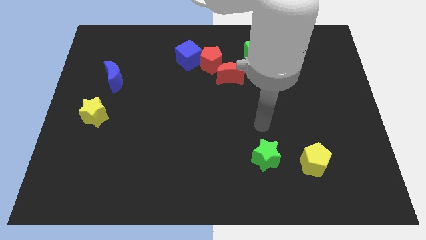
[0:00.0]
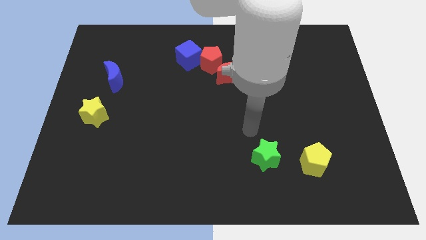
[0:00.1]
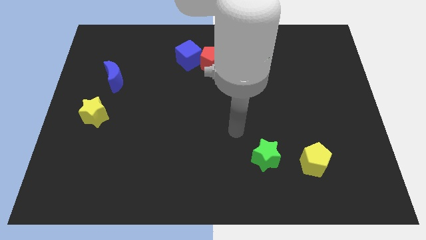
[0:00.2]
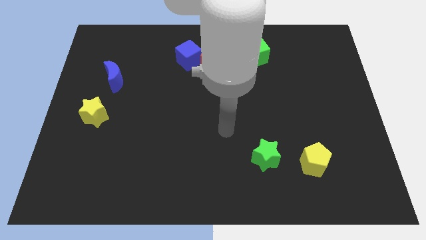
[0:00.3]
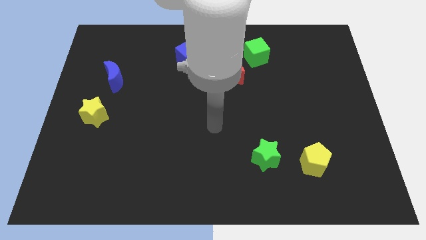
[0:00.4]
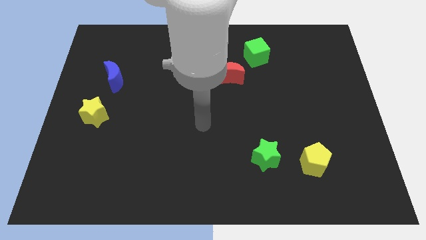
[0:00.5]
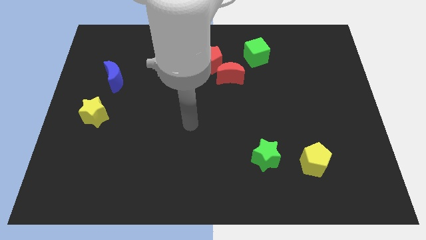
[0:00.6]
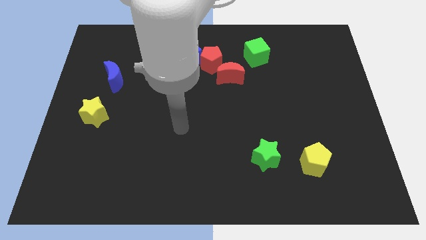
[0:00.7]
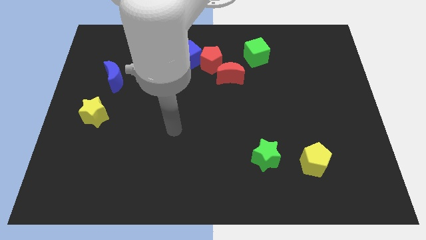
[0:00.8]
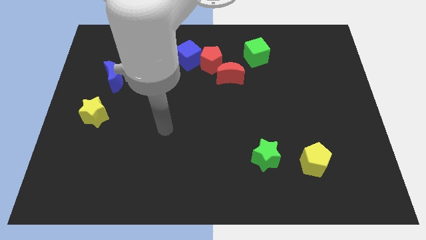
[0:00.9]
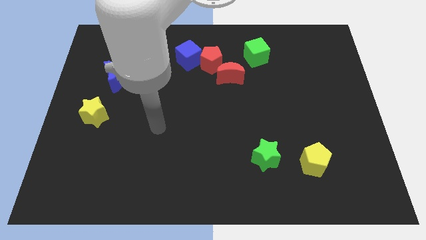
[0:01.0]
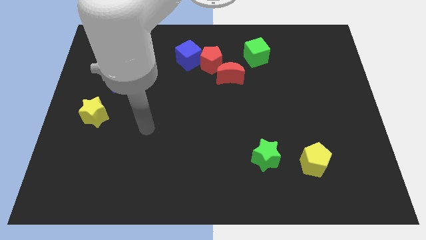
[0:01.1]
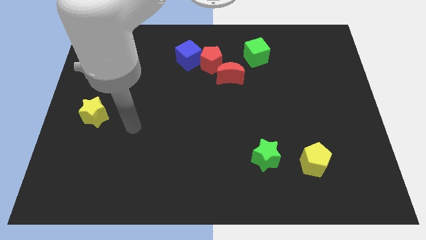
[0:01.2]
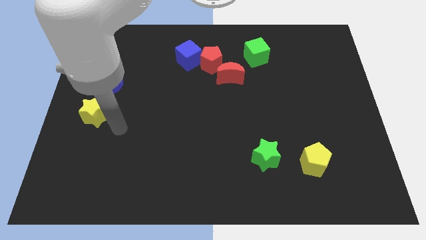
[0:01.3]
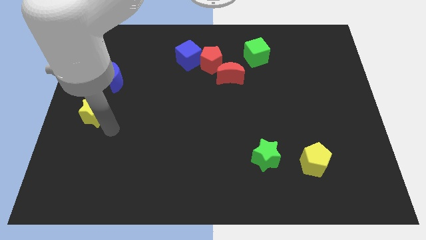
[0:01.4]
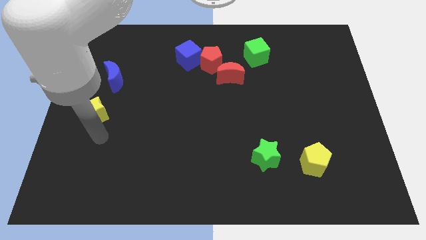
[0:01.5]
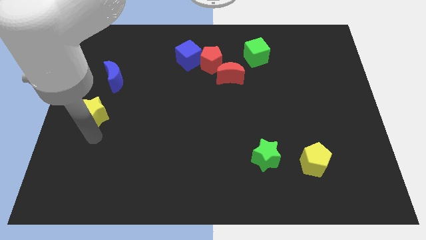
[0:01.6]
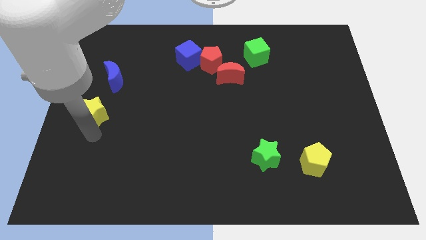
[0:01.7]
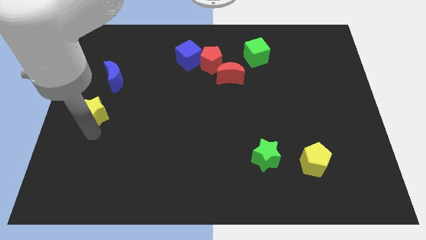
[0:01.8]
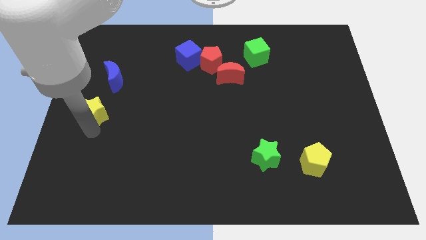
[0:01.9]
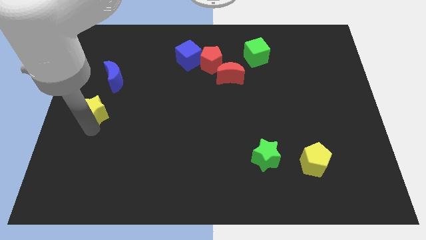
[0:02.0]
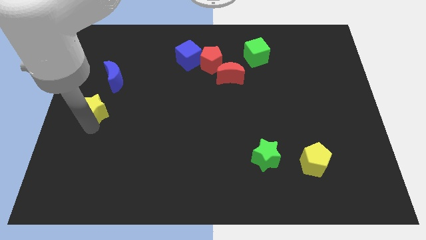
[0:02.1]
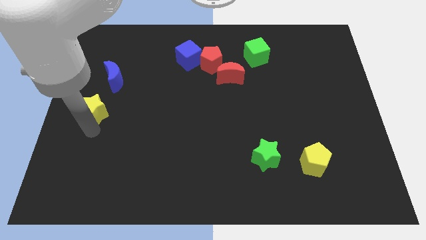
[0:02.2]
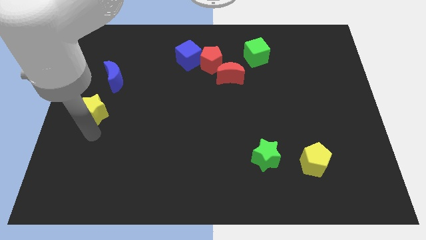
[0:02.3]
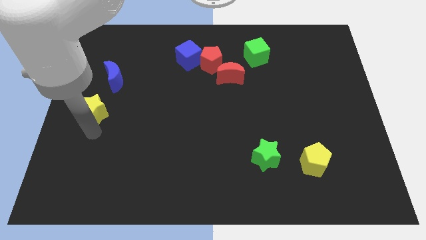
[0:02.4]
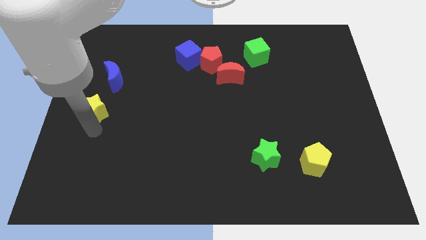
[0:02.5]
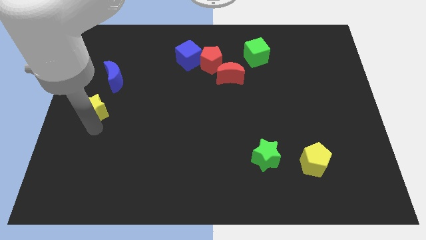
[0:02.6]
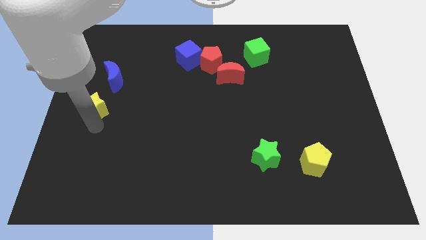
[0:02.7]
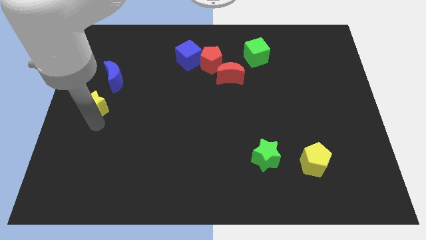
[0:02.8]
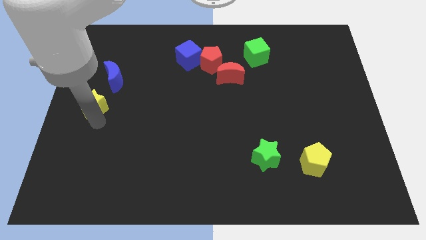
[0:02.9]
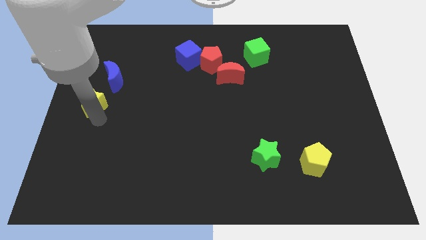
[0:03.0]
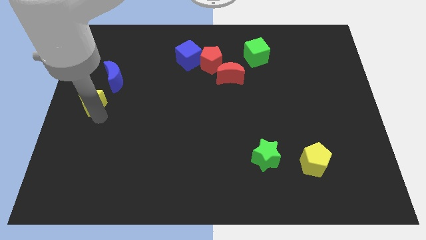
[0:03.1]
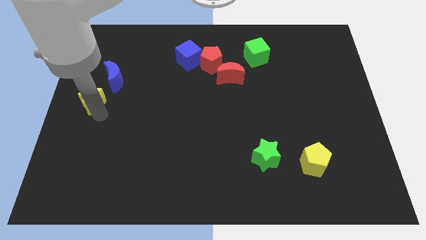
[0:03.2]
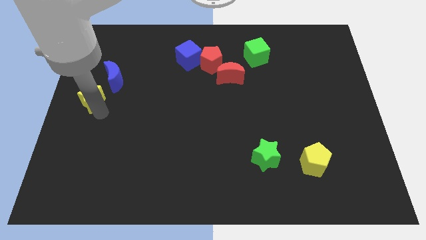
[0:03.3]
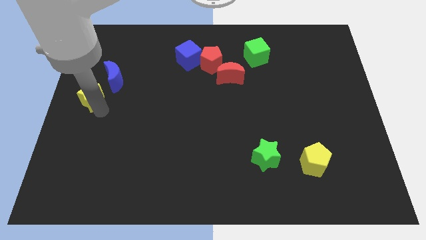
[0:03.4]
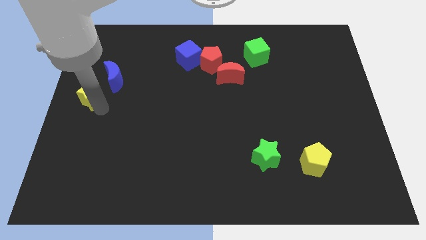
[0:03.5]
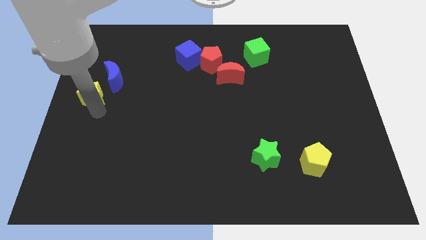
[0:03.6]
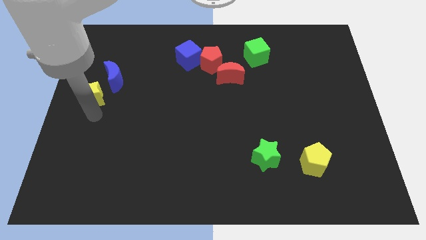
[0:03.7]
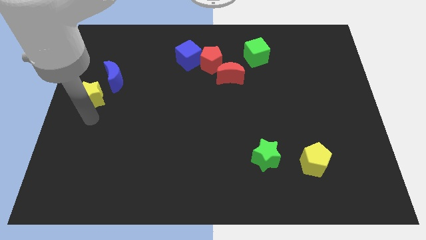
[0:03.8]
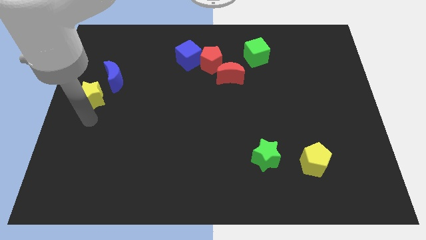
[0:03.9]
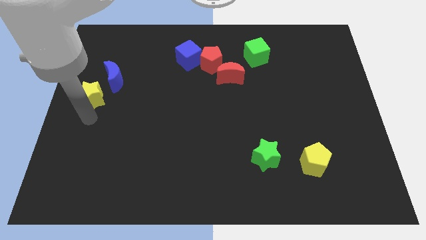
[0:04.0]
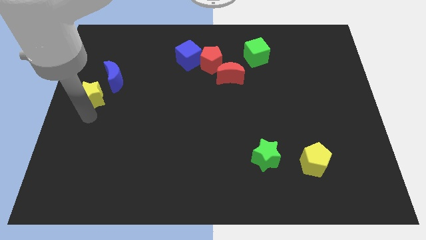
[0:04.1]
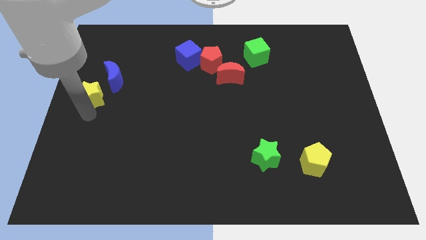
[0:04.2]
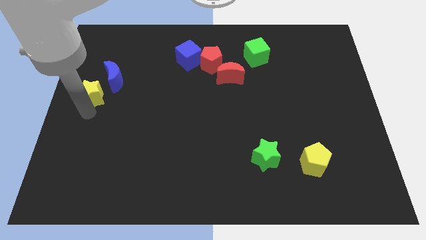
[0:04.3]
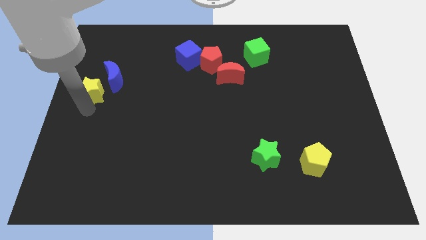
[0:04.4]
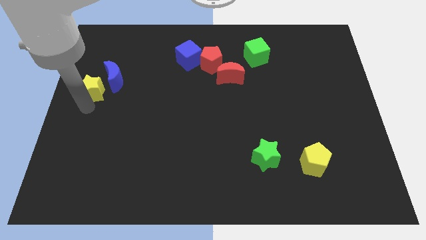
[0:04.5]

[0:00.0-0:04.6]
slide the yellow star up a little

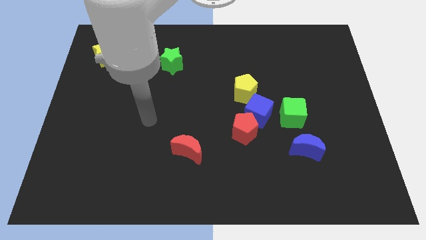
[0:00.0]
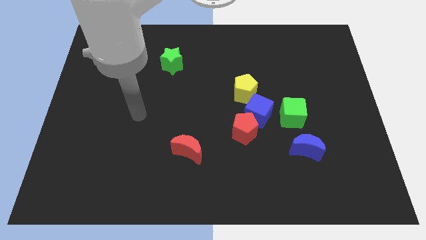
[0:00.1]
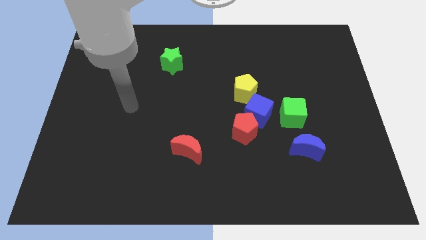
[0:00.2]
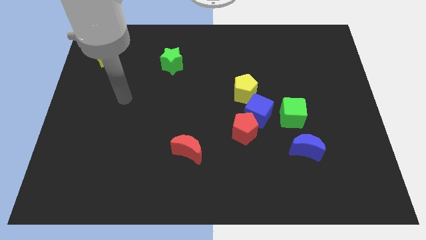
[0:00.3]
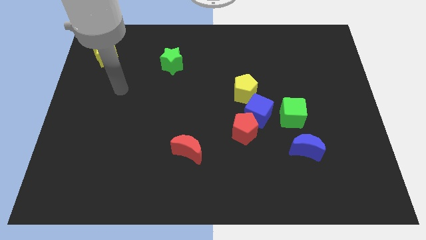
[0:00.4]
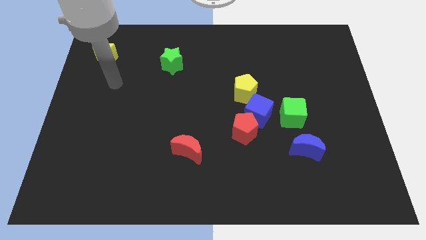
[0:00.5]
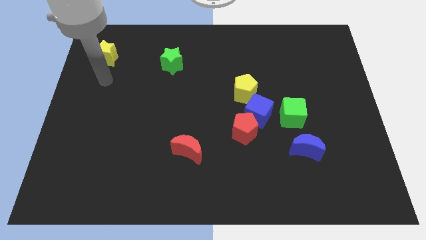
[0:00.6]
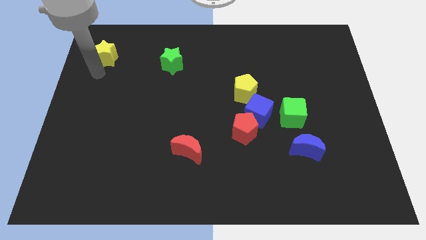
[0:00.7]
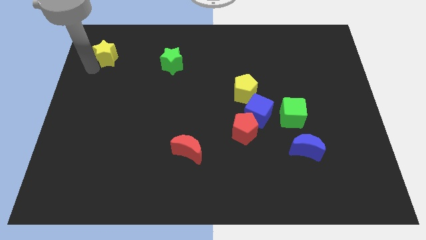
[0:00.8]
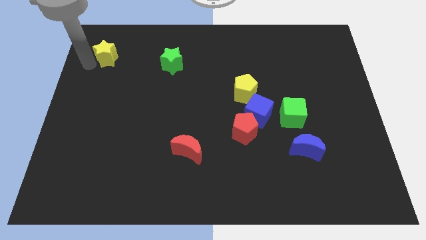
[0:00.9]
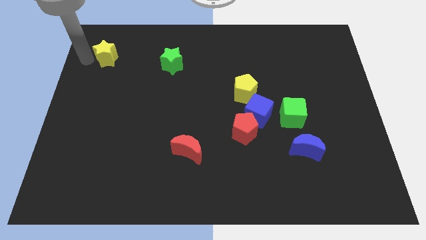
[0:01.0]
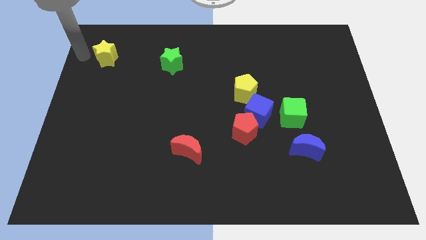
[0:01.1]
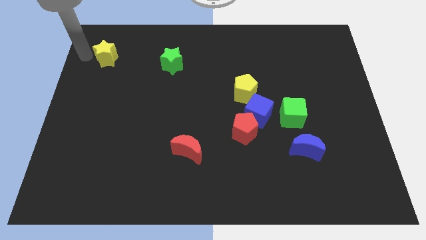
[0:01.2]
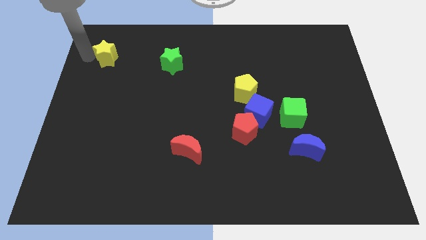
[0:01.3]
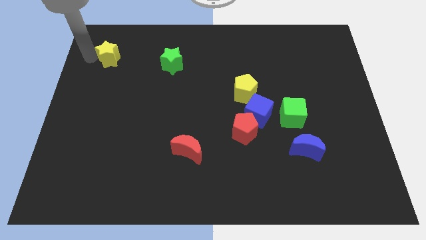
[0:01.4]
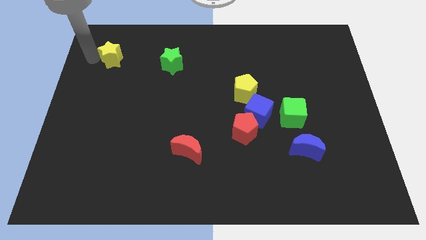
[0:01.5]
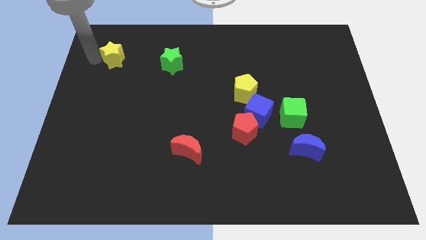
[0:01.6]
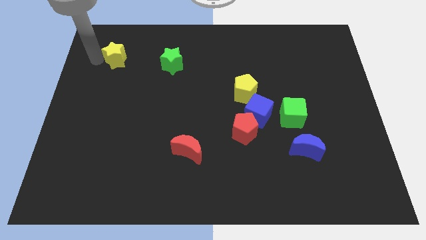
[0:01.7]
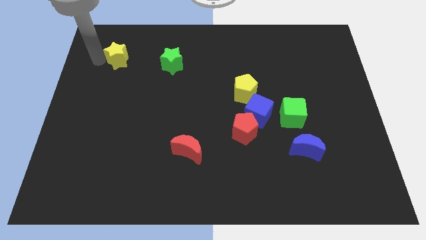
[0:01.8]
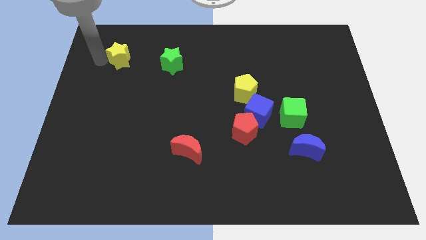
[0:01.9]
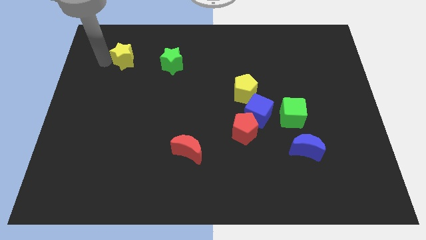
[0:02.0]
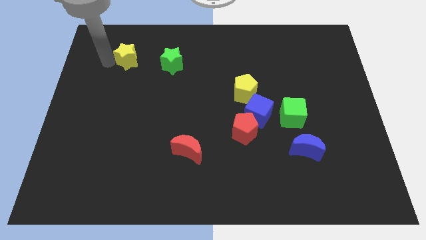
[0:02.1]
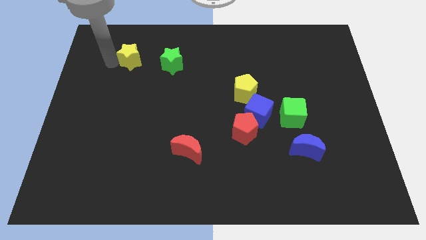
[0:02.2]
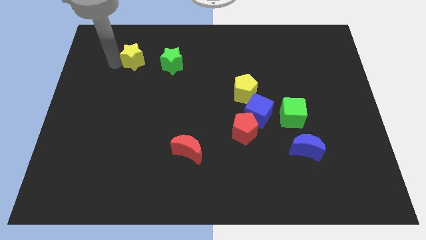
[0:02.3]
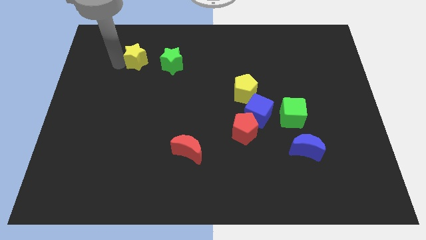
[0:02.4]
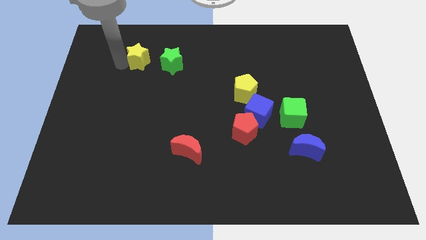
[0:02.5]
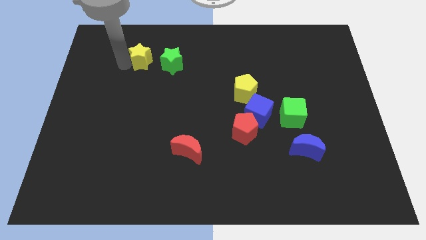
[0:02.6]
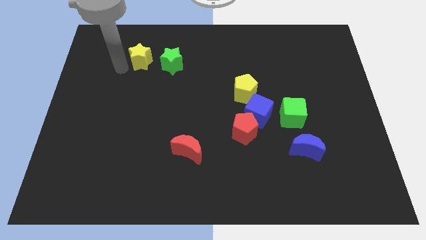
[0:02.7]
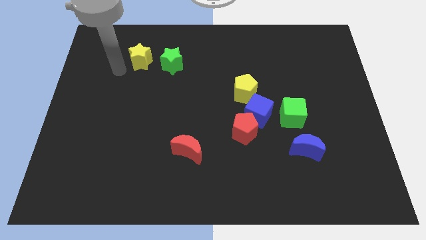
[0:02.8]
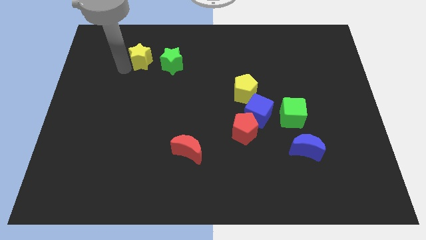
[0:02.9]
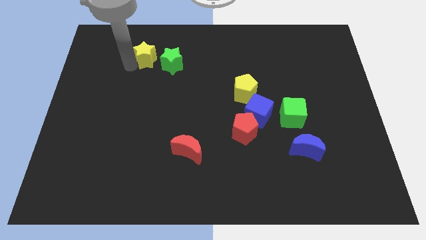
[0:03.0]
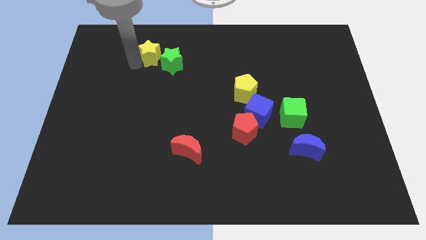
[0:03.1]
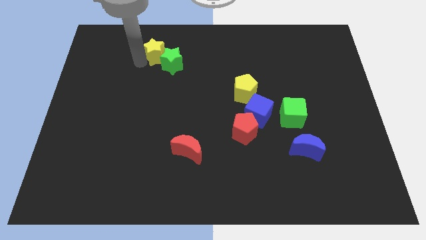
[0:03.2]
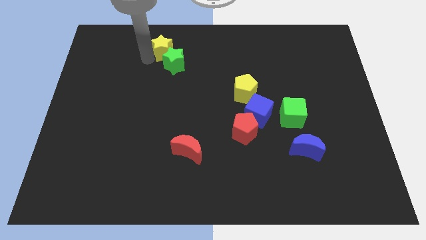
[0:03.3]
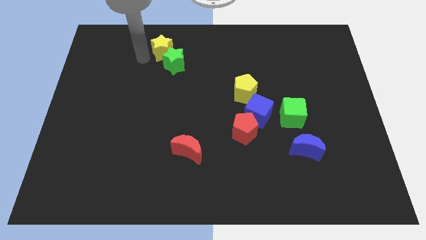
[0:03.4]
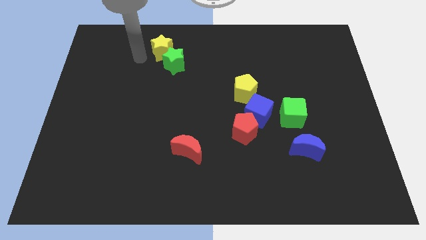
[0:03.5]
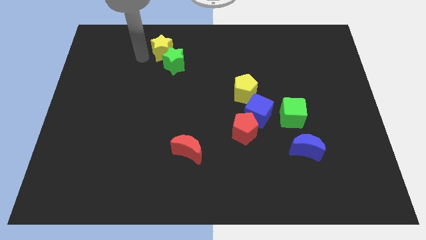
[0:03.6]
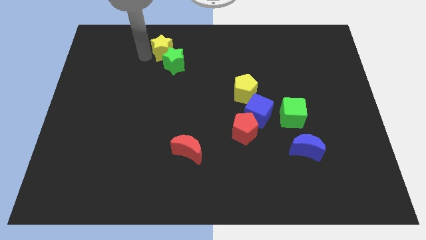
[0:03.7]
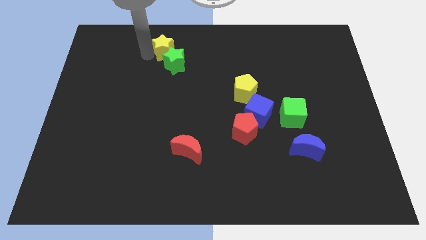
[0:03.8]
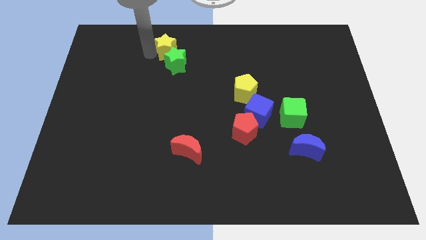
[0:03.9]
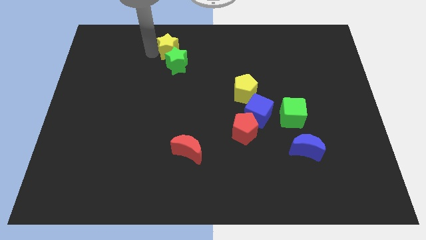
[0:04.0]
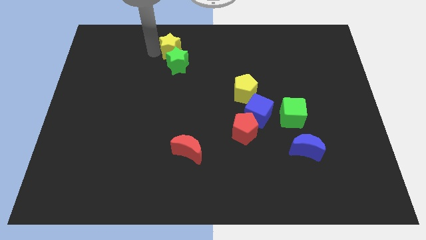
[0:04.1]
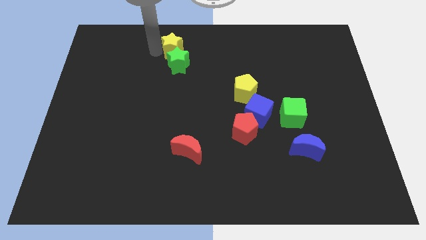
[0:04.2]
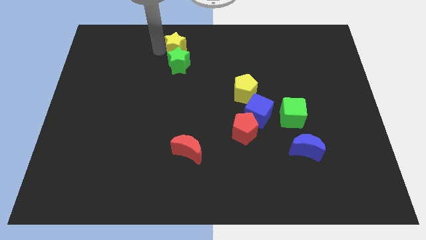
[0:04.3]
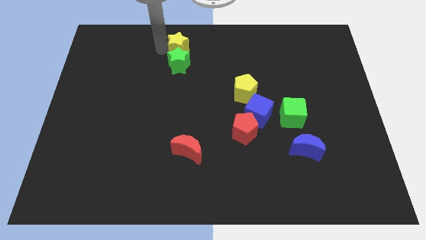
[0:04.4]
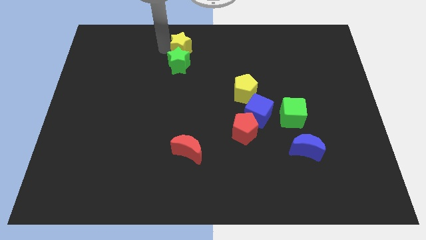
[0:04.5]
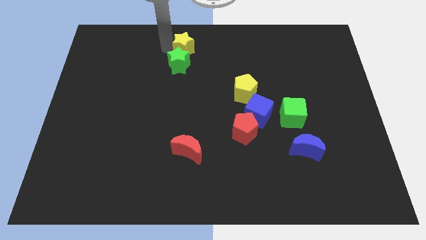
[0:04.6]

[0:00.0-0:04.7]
slide the yellow star right
